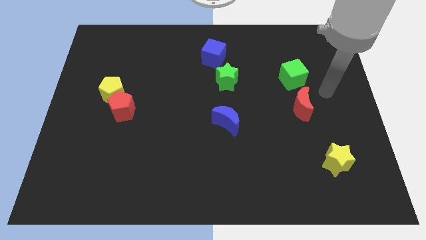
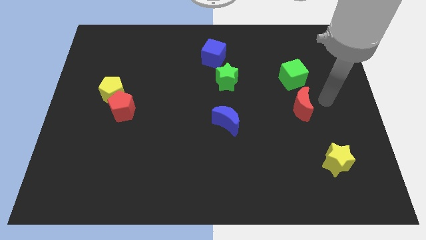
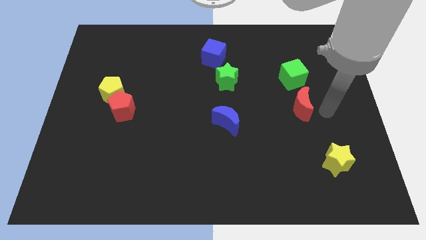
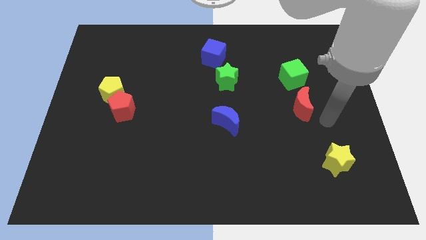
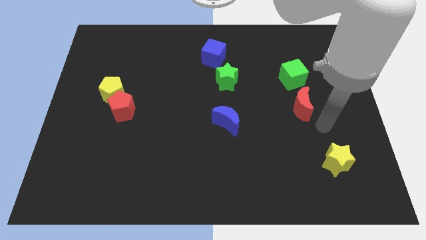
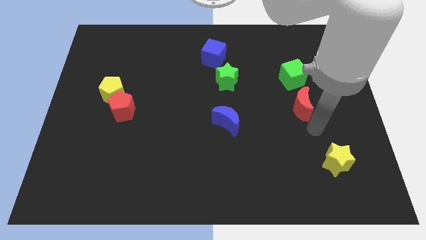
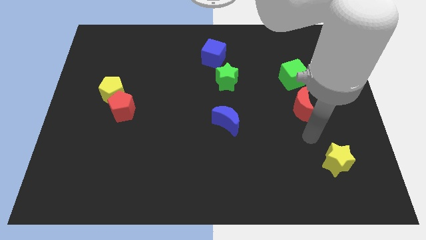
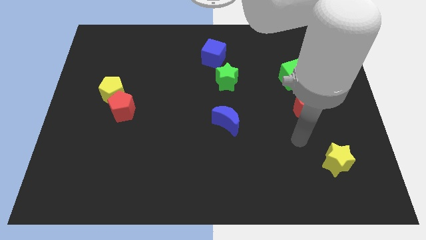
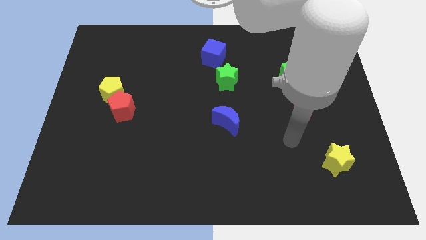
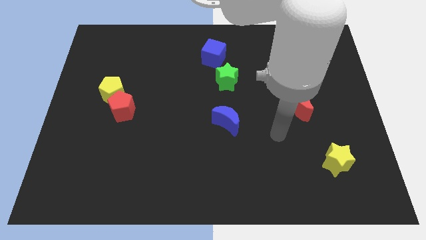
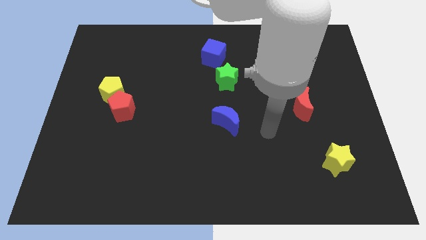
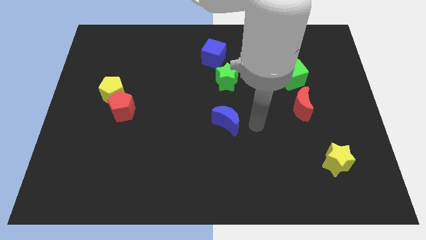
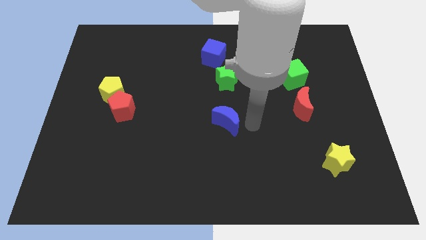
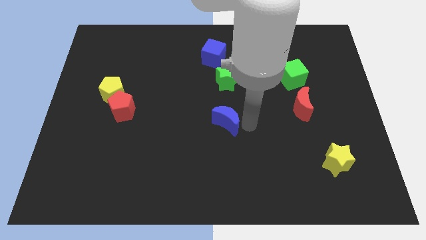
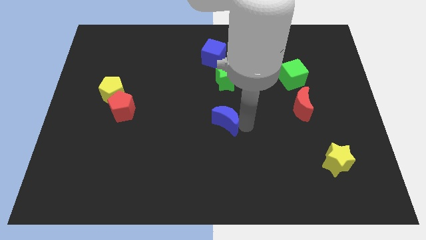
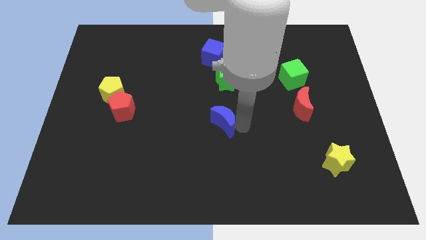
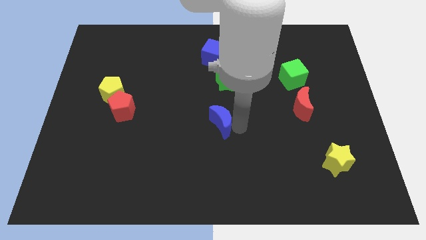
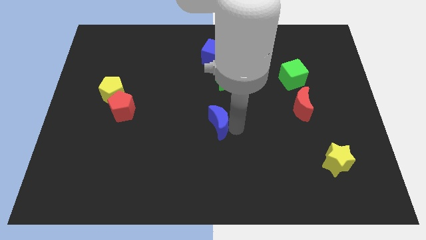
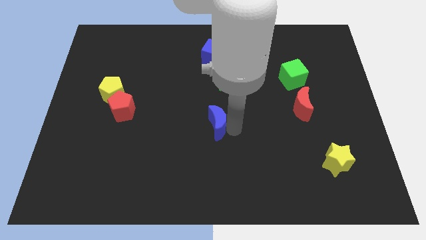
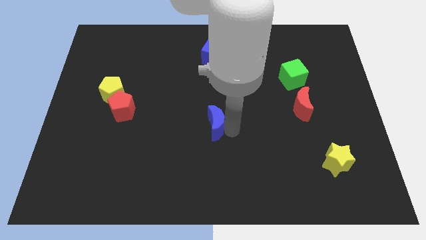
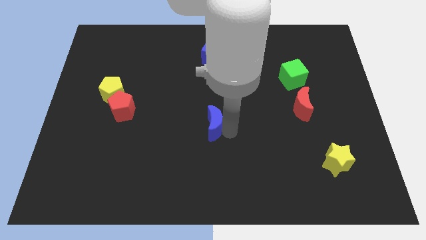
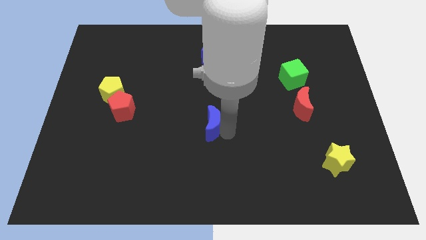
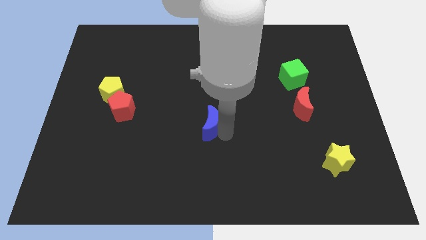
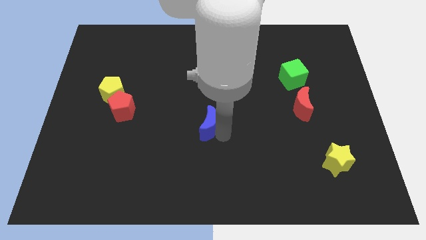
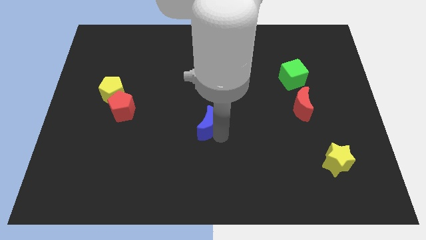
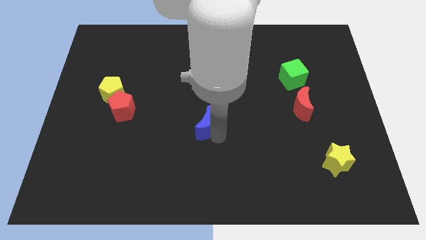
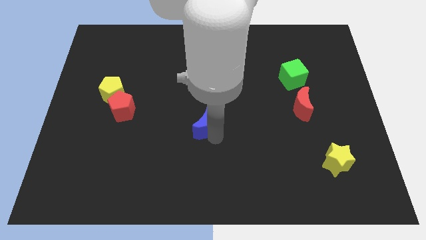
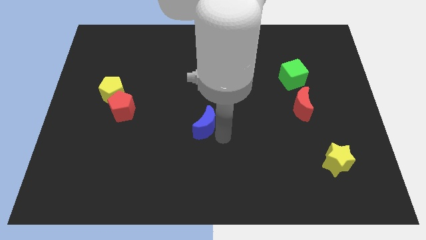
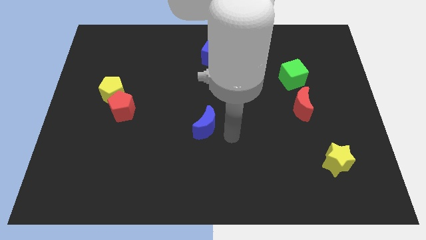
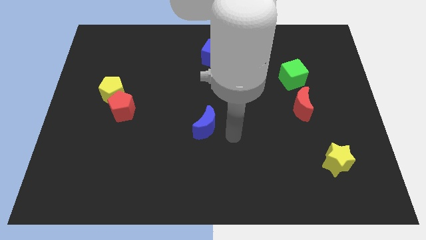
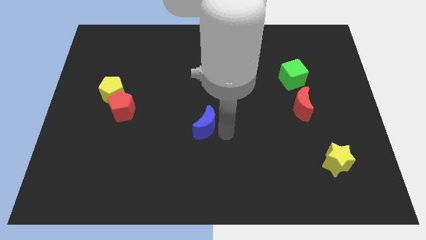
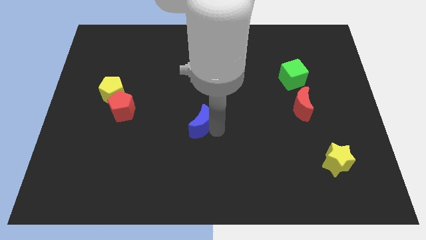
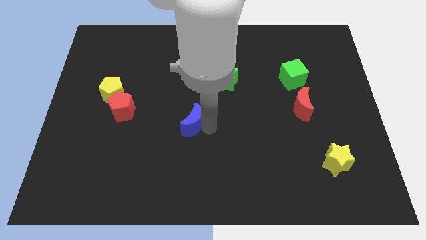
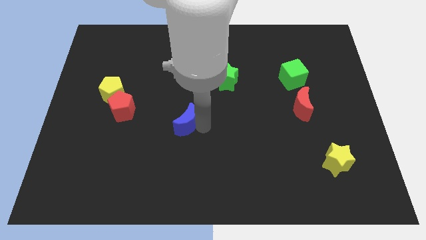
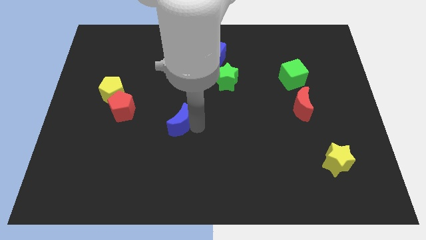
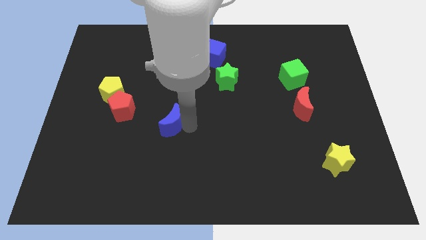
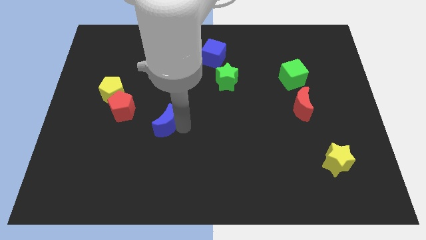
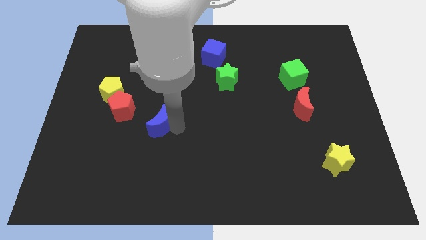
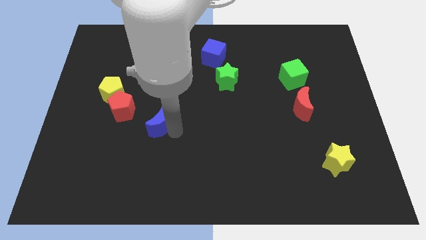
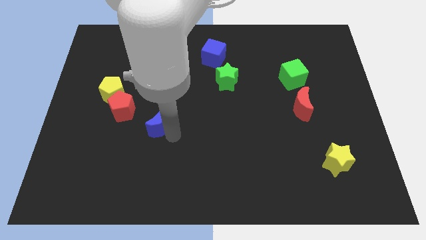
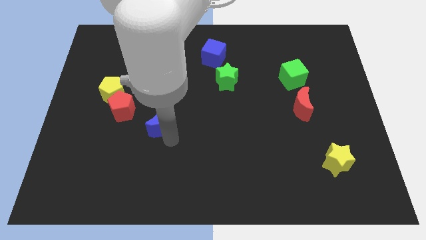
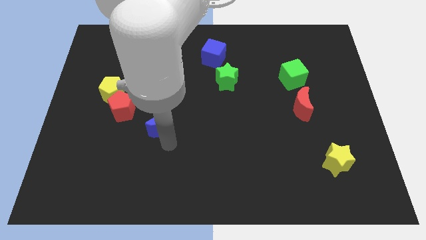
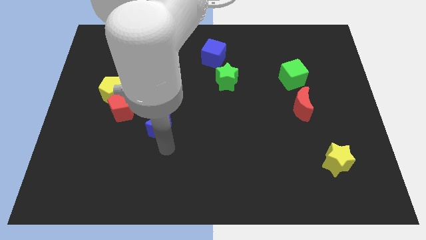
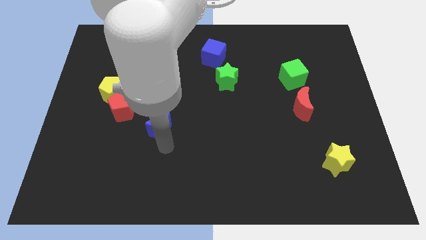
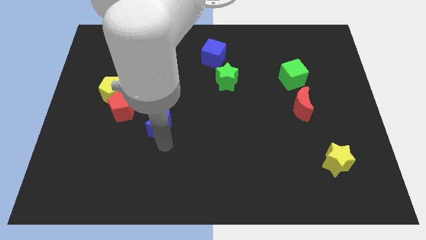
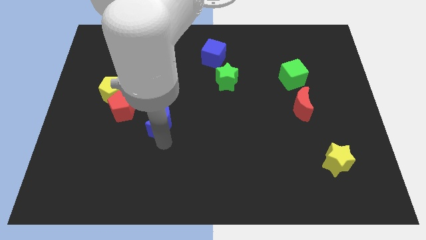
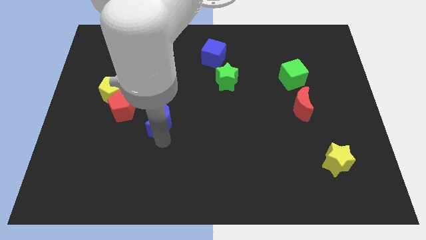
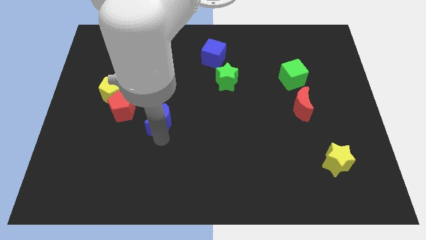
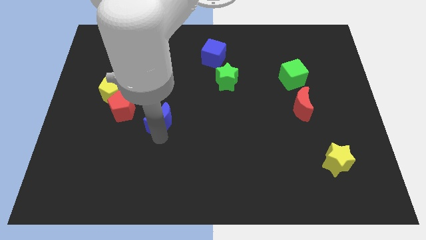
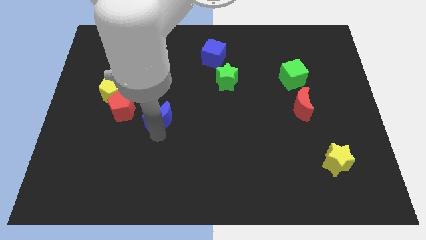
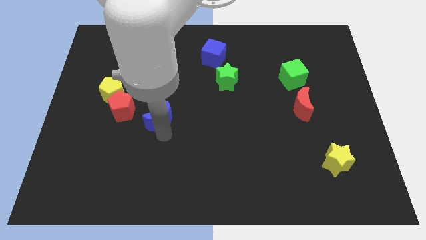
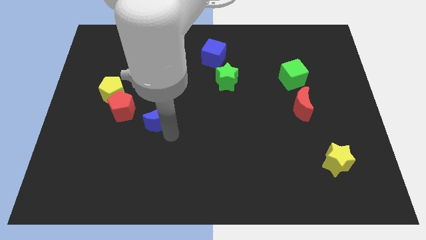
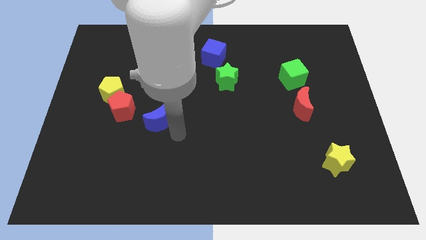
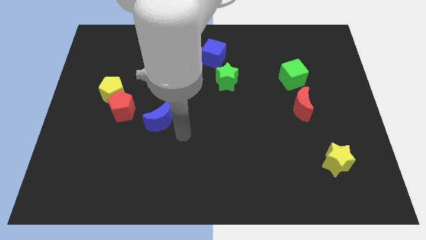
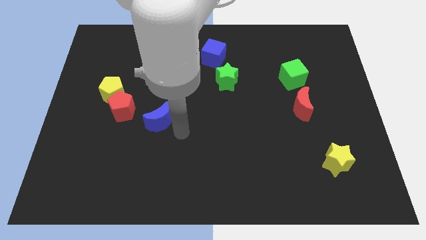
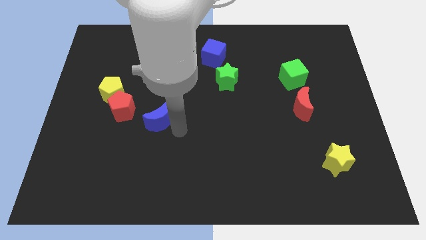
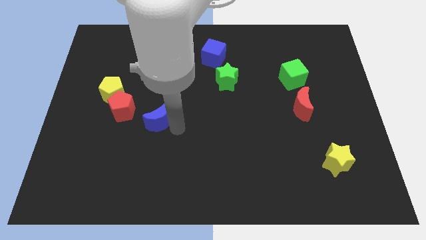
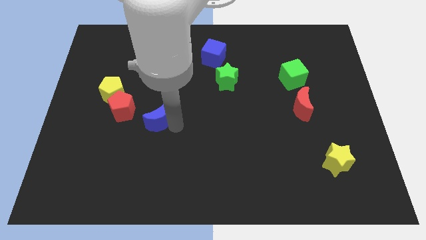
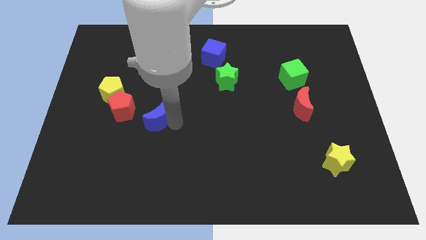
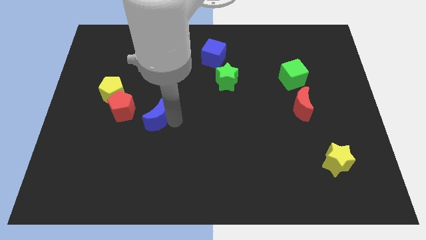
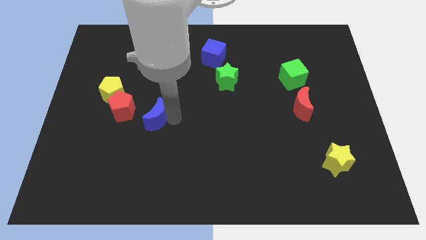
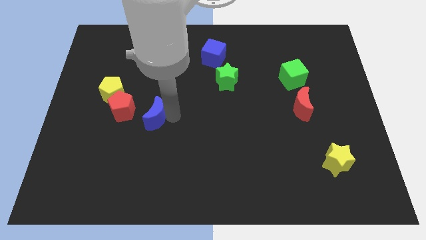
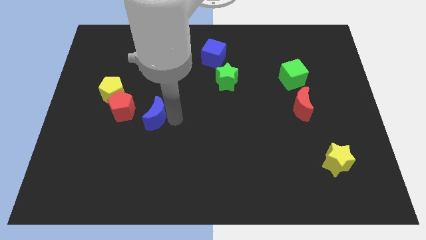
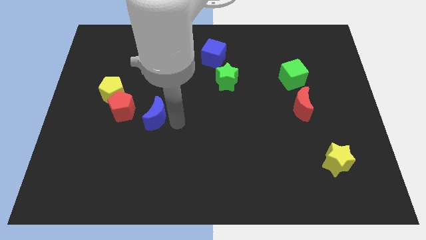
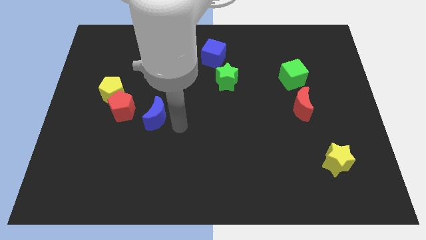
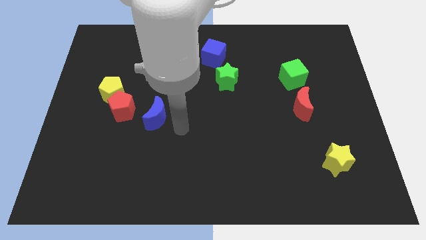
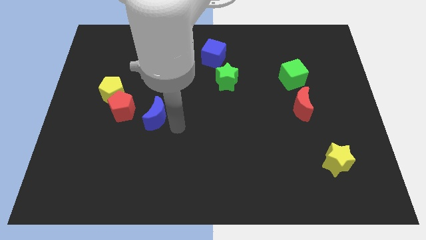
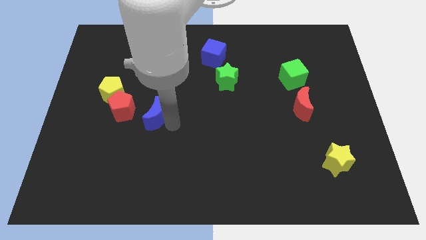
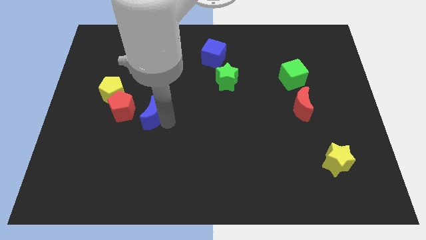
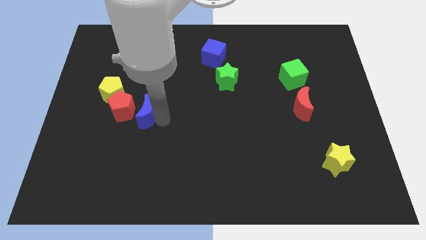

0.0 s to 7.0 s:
move the blue moon next to the red pentagon

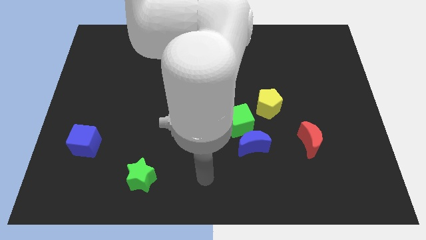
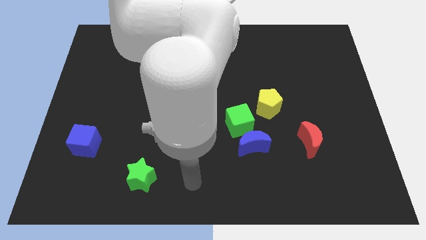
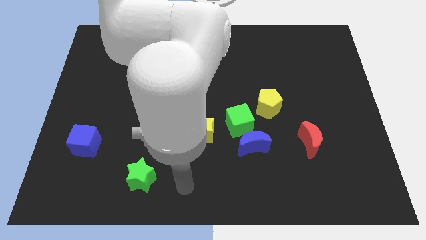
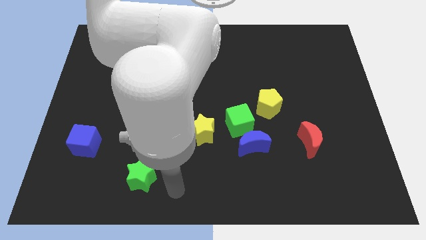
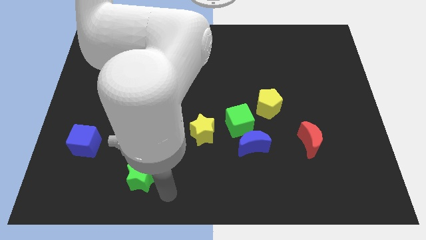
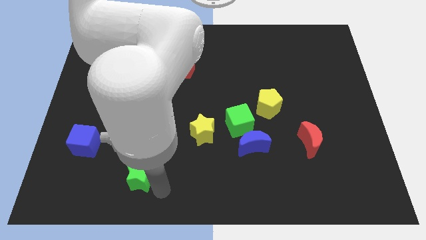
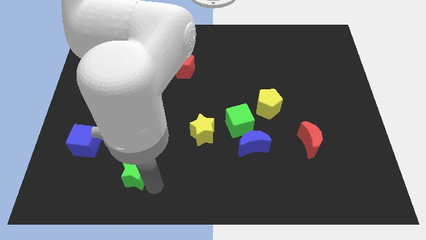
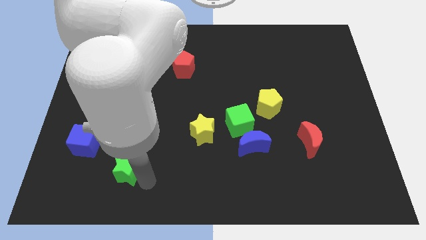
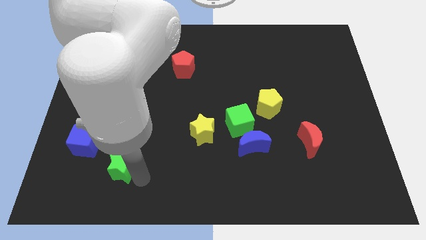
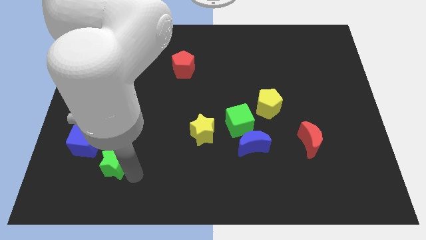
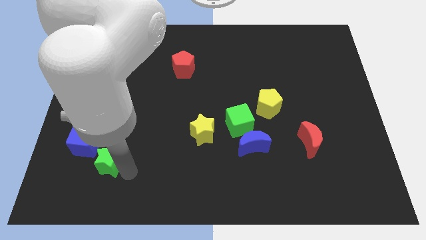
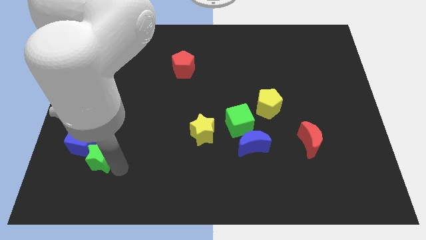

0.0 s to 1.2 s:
move the green star to the blue cube
